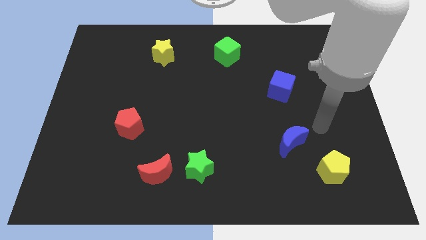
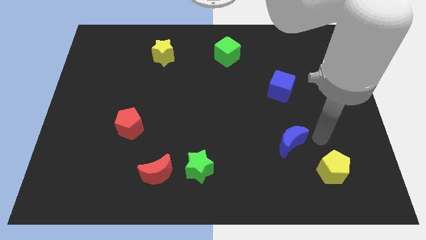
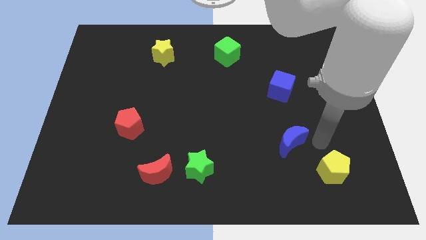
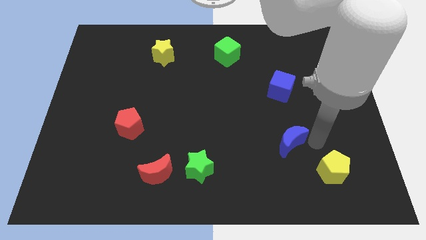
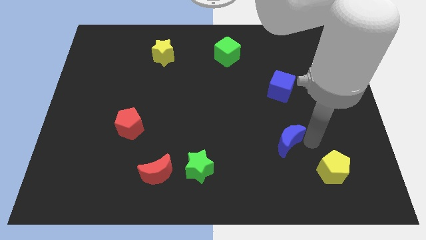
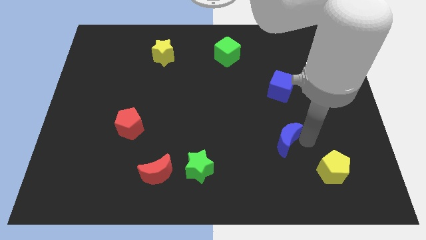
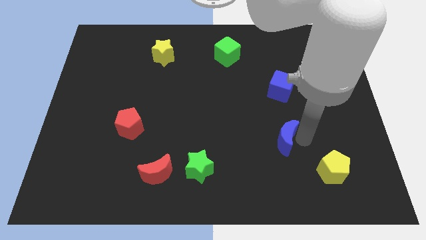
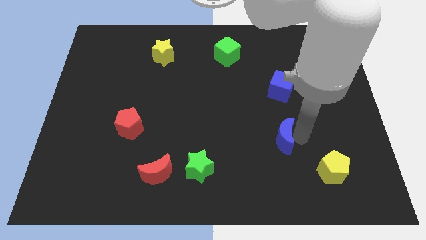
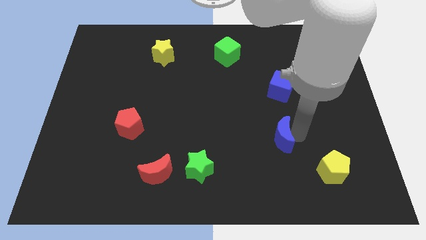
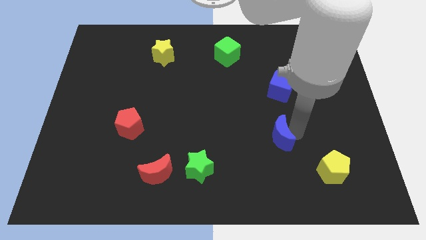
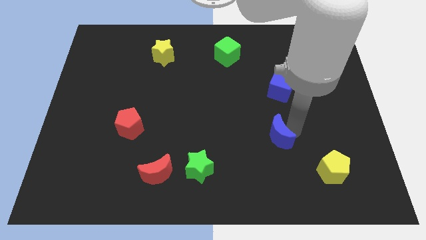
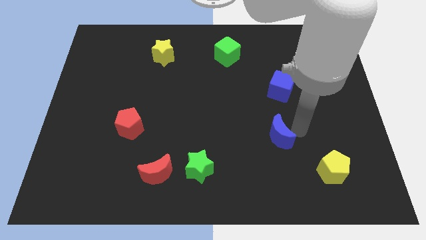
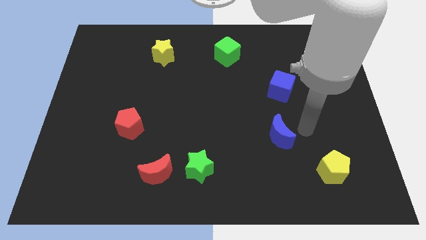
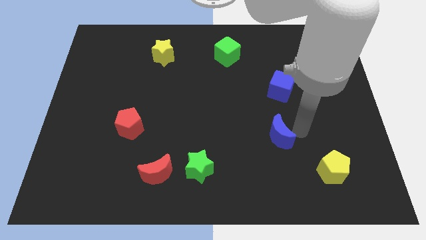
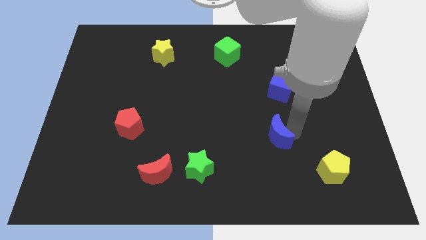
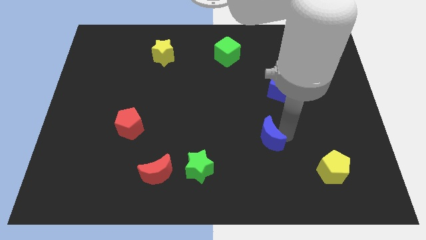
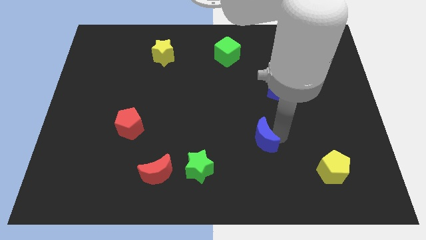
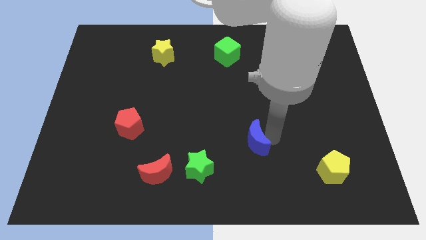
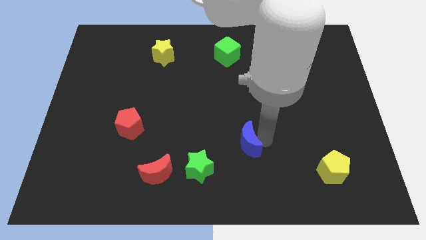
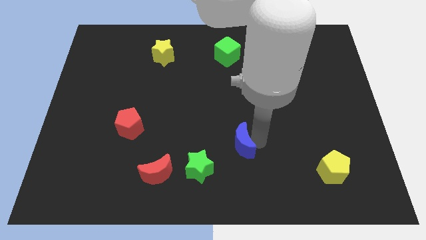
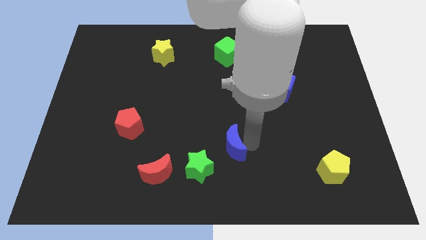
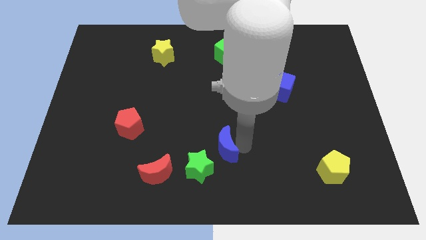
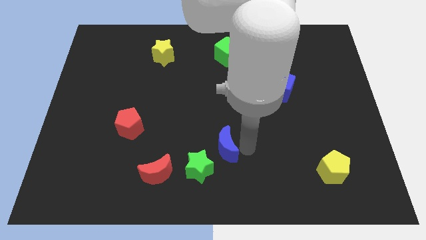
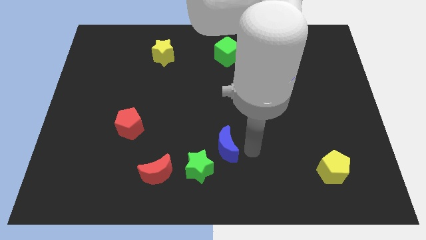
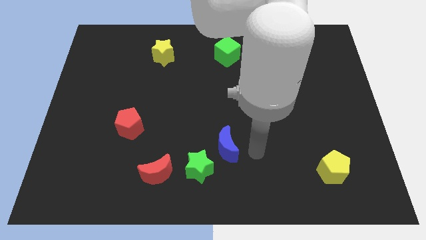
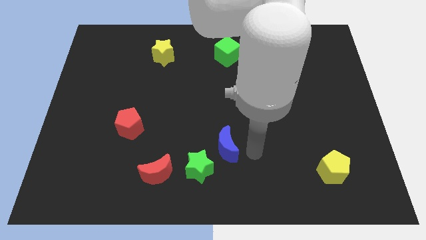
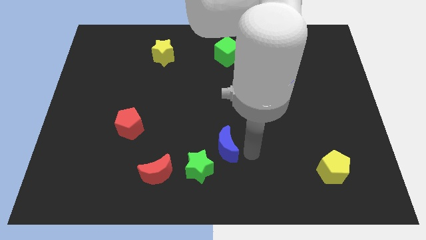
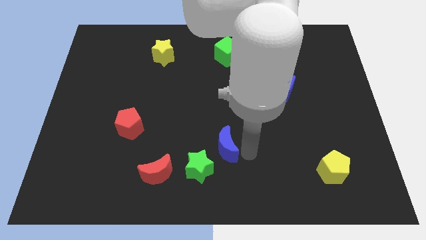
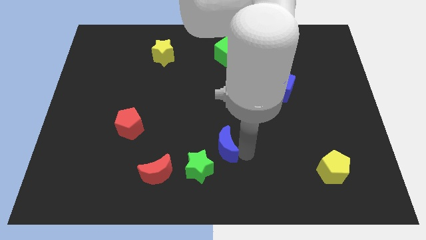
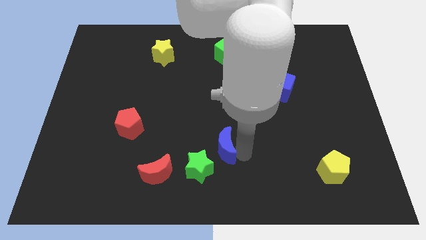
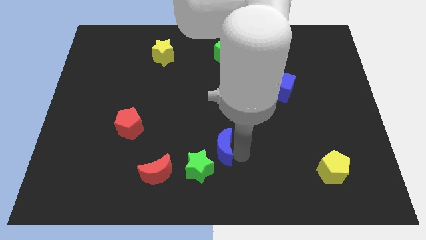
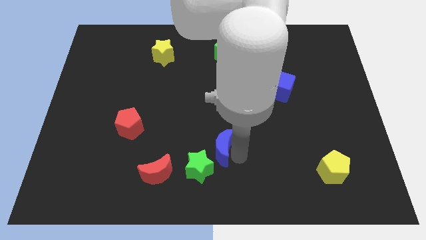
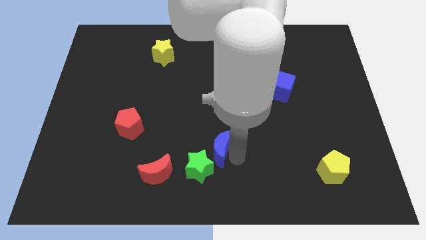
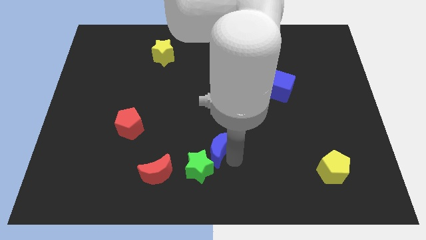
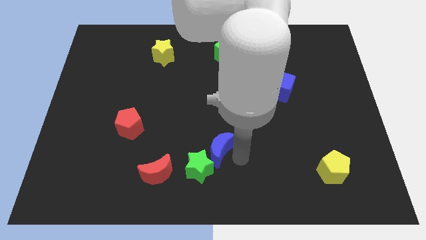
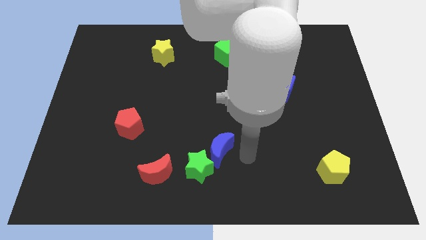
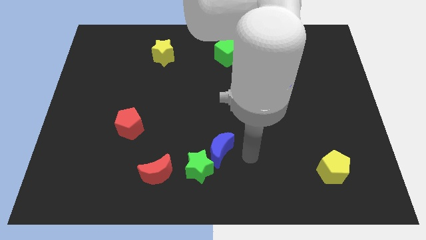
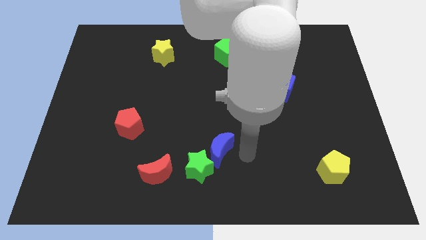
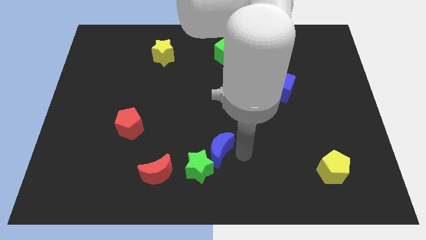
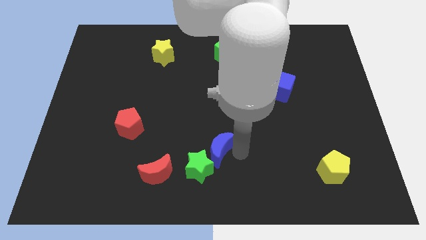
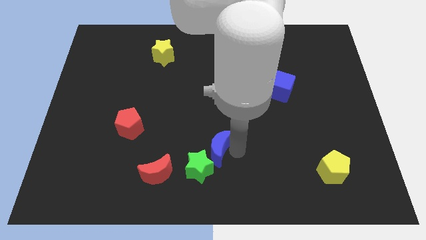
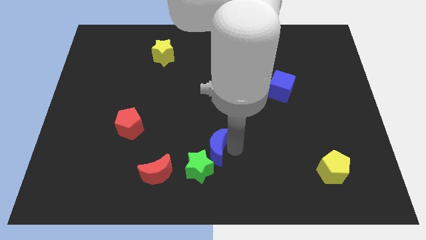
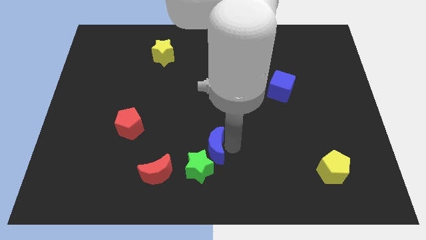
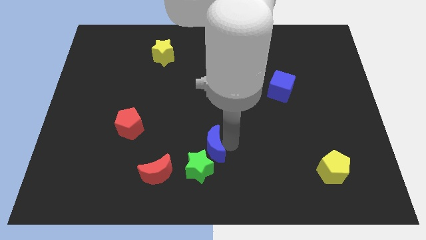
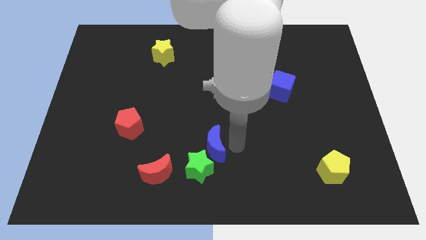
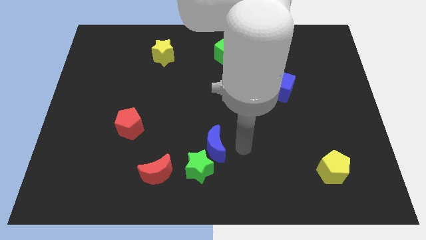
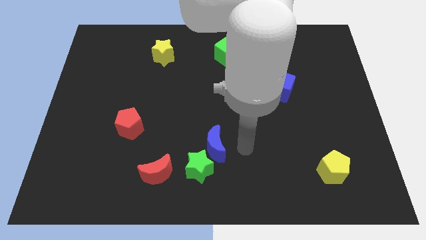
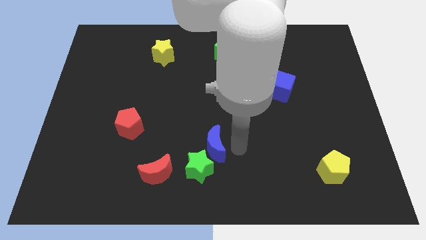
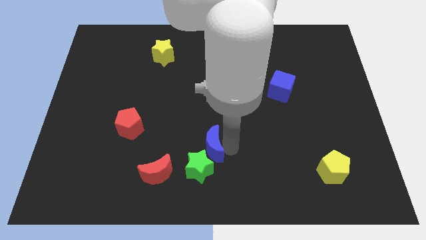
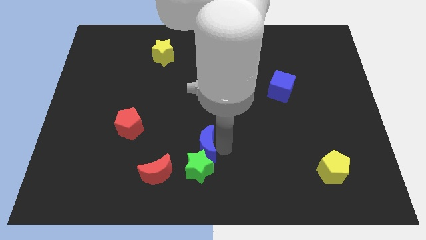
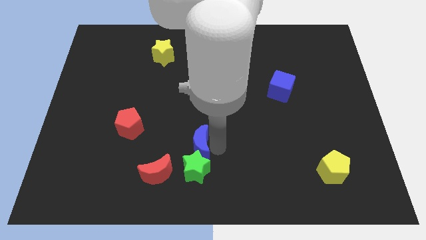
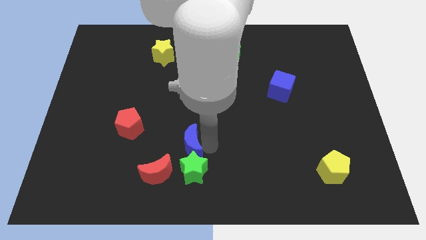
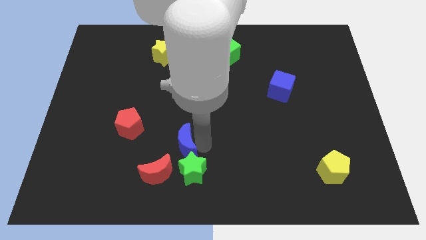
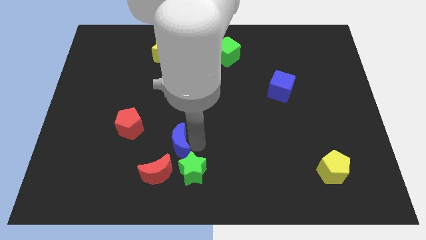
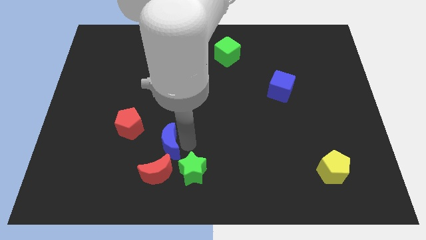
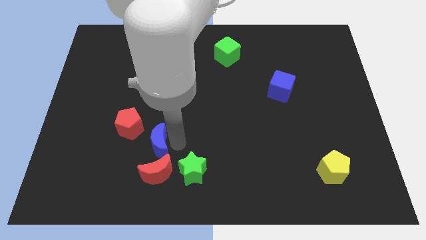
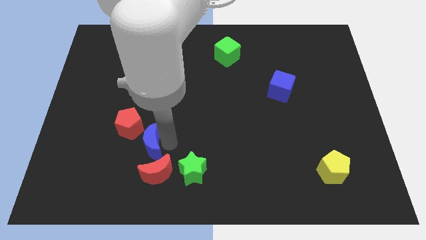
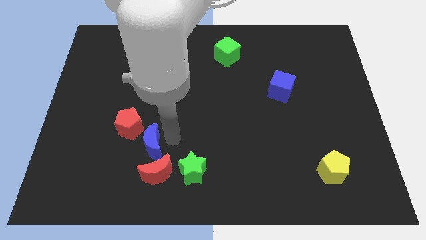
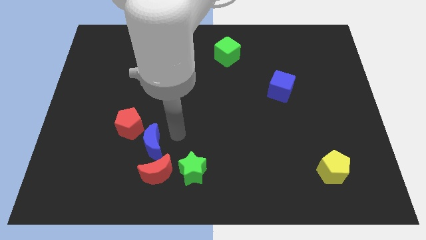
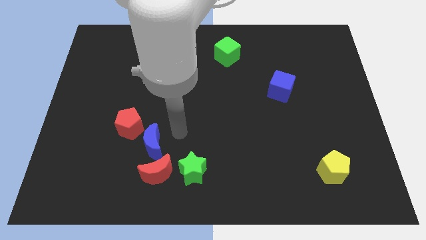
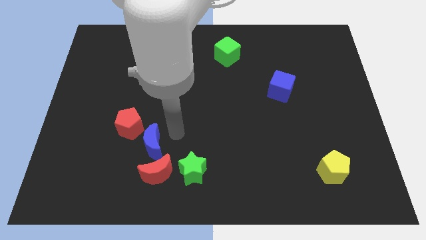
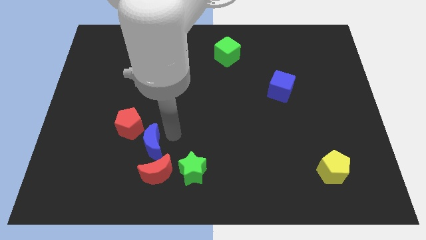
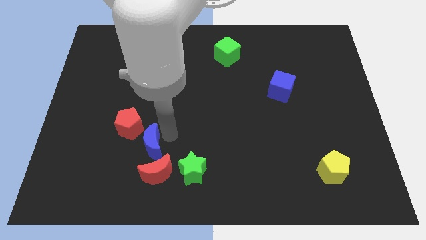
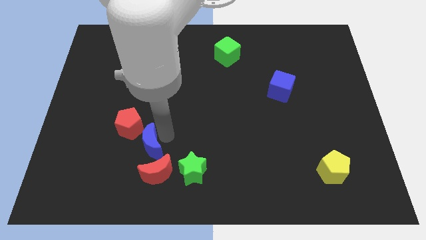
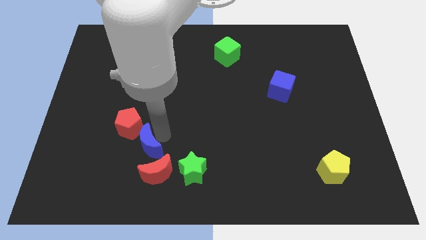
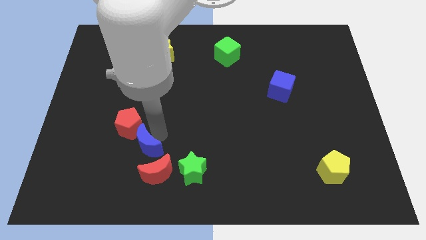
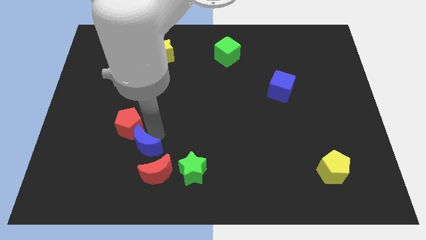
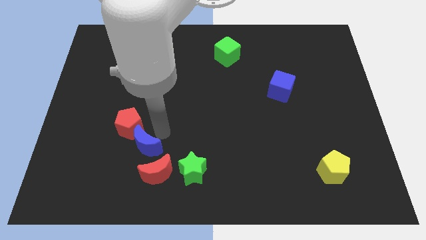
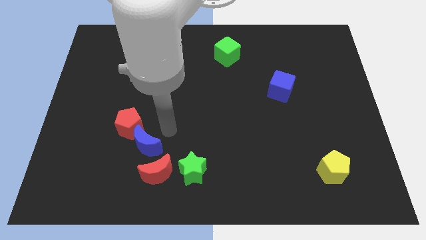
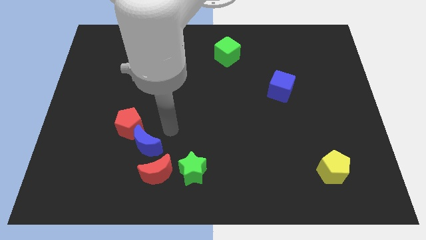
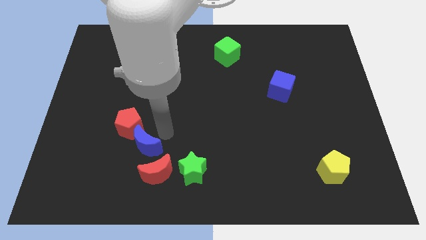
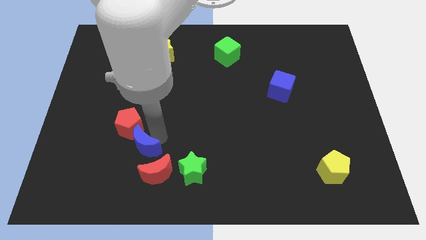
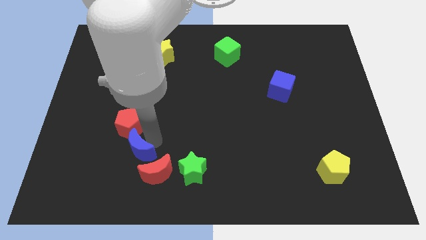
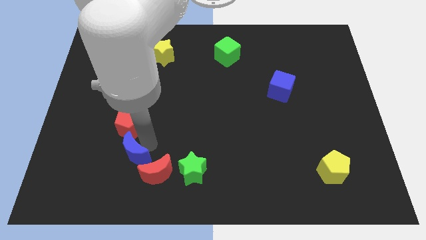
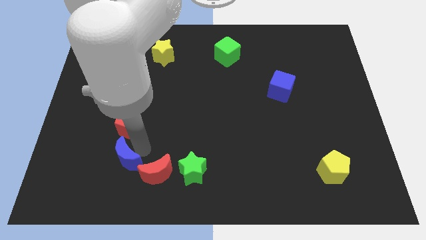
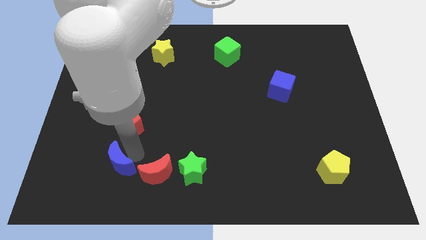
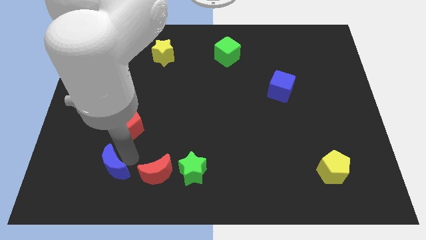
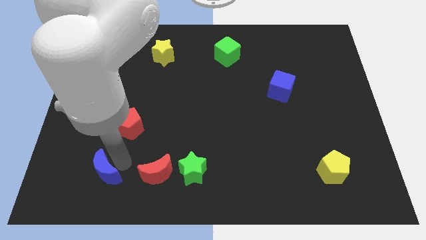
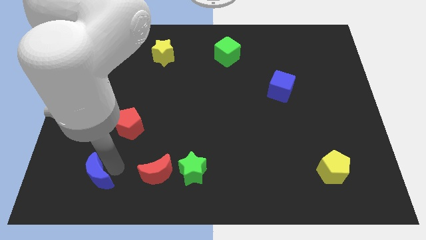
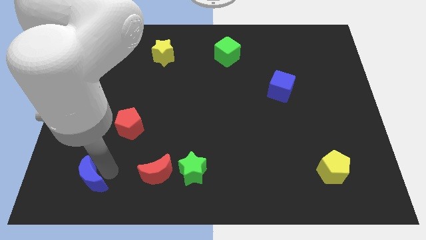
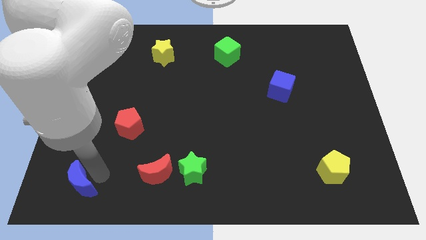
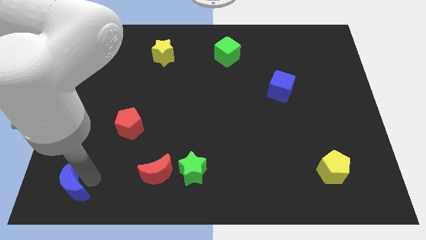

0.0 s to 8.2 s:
push the blue moon to the lower left corner
